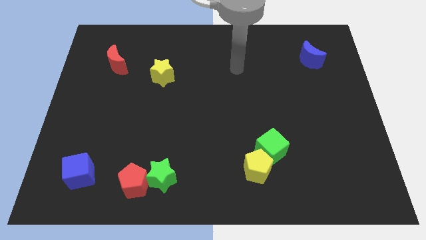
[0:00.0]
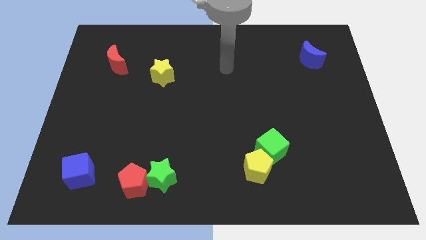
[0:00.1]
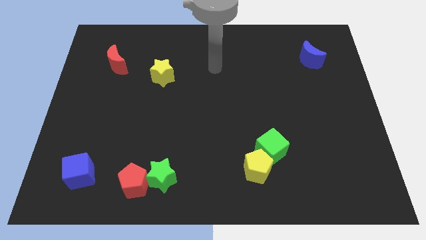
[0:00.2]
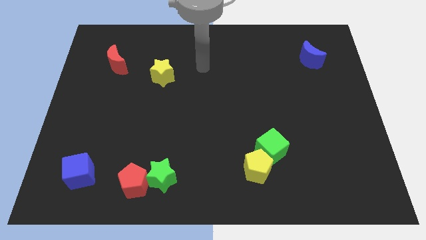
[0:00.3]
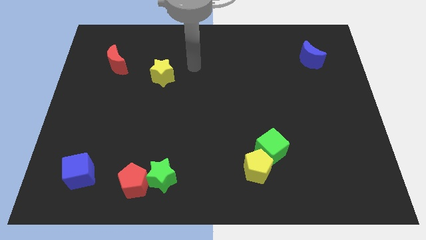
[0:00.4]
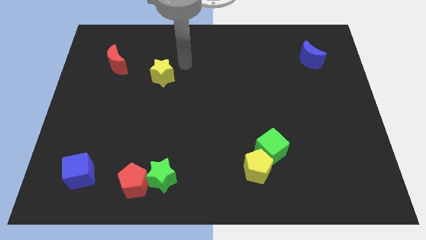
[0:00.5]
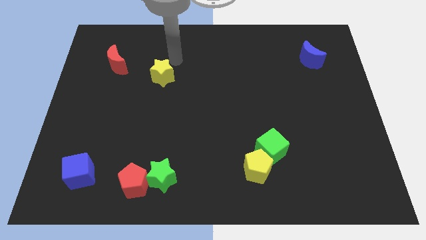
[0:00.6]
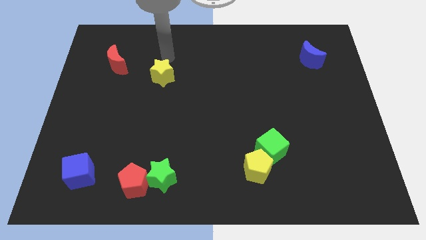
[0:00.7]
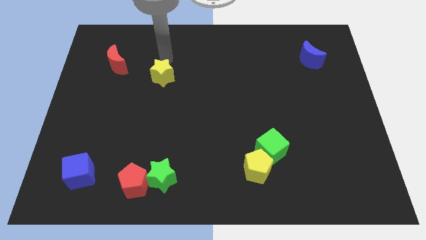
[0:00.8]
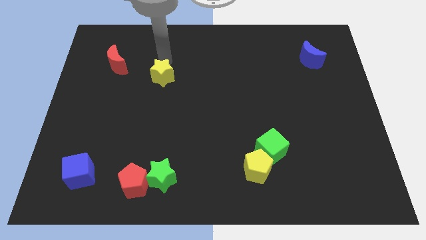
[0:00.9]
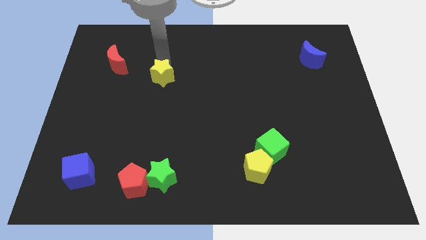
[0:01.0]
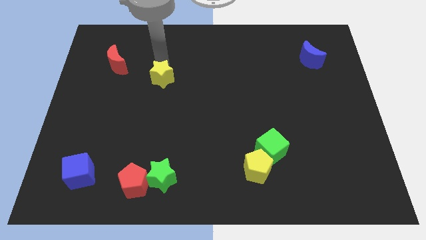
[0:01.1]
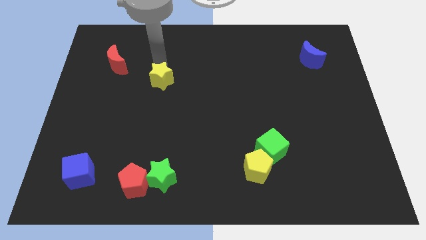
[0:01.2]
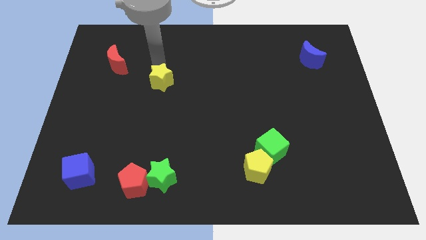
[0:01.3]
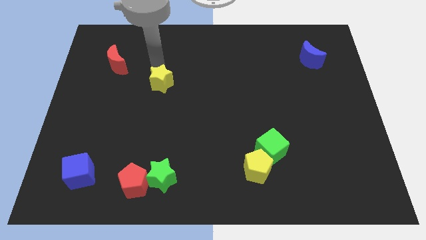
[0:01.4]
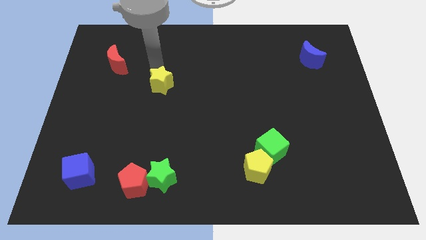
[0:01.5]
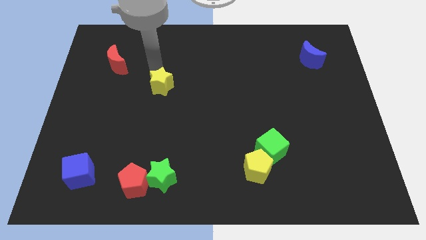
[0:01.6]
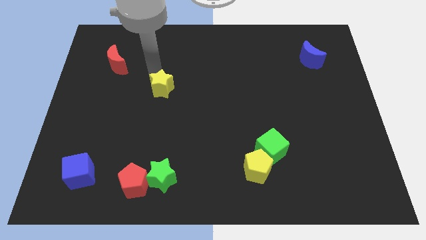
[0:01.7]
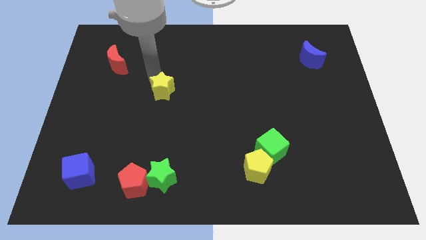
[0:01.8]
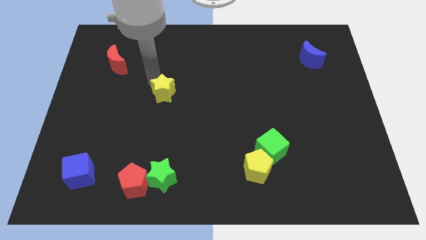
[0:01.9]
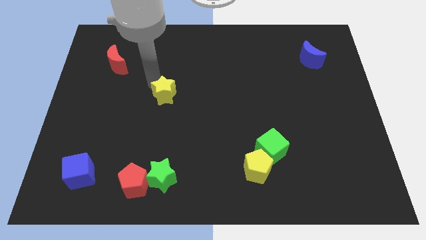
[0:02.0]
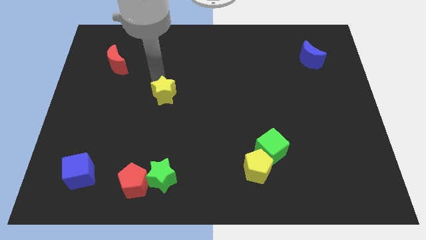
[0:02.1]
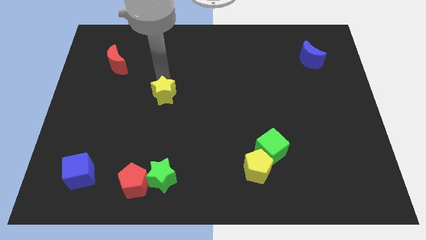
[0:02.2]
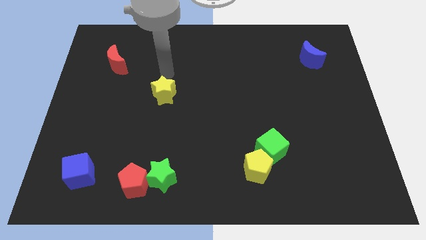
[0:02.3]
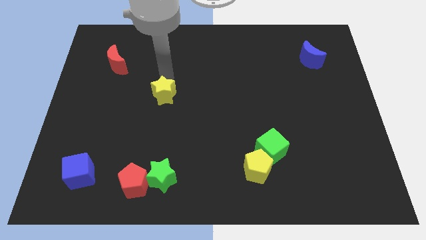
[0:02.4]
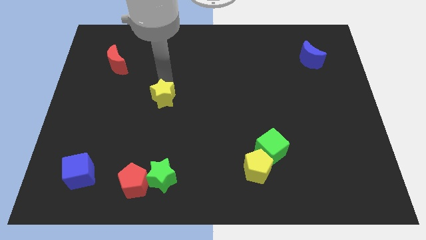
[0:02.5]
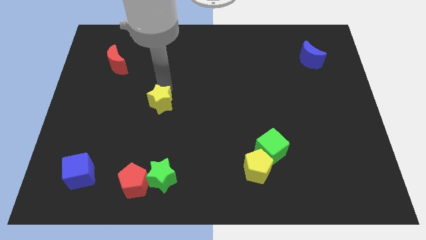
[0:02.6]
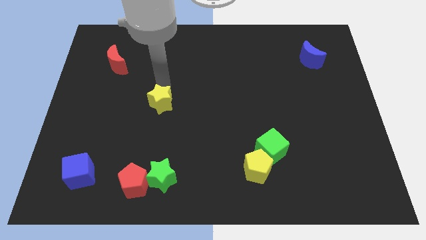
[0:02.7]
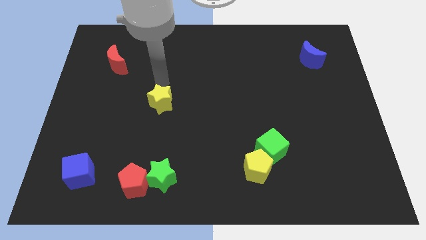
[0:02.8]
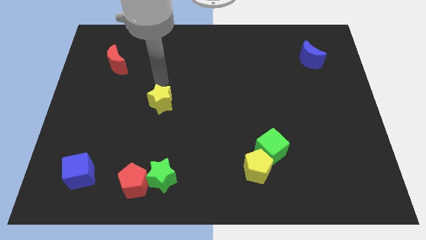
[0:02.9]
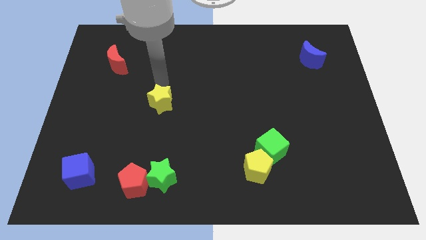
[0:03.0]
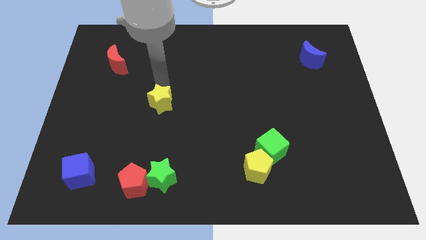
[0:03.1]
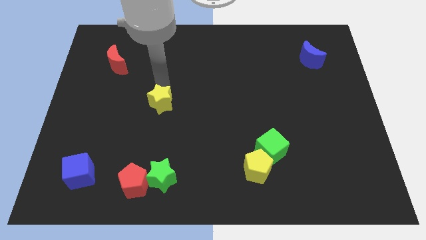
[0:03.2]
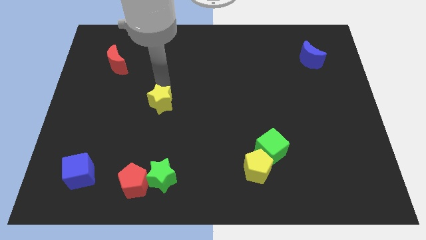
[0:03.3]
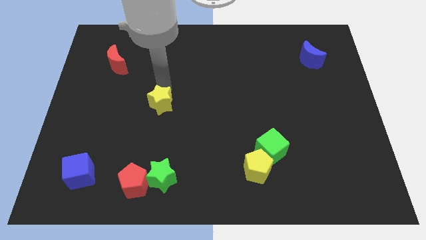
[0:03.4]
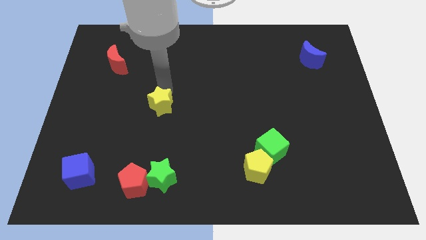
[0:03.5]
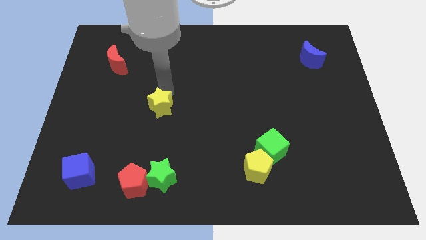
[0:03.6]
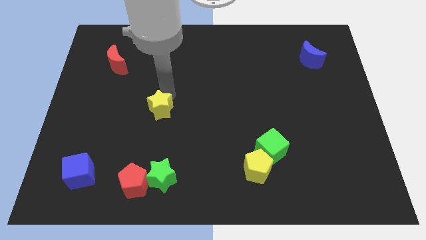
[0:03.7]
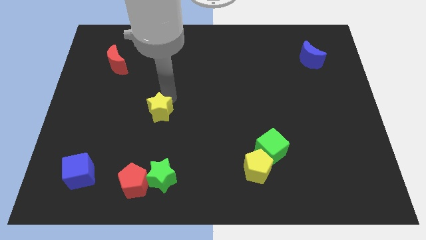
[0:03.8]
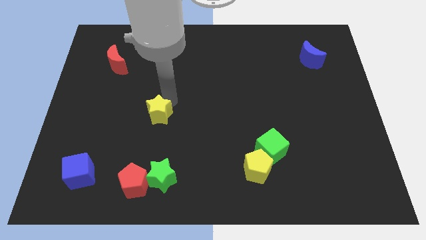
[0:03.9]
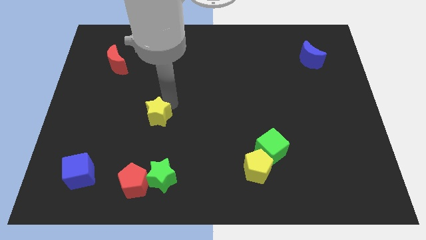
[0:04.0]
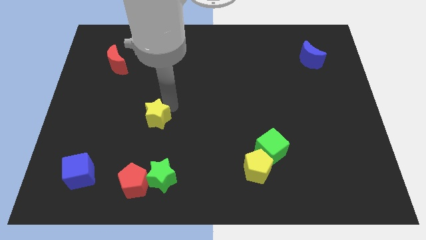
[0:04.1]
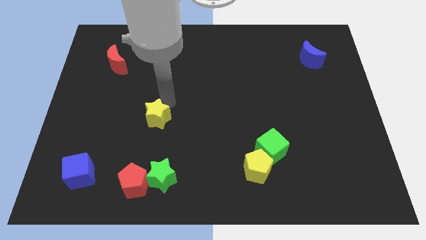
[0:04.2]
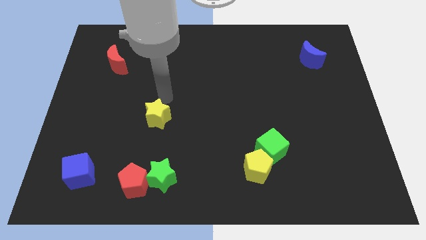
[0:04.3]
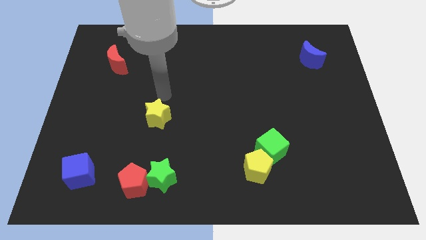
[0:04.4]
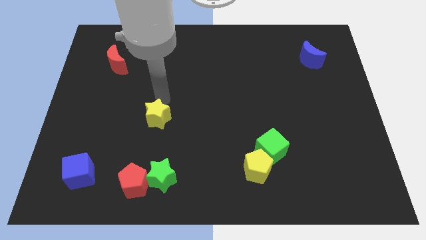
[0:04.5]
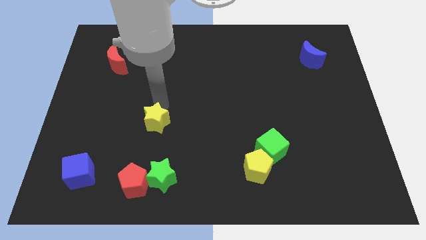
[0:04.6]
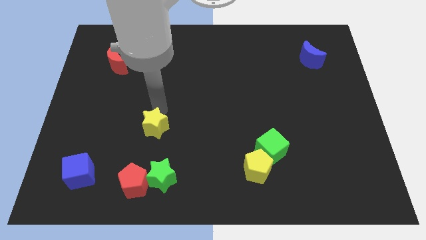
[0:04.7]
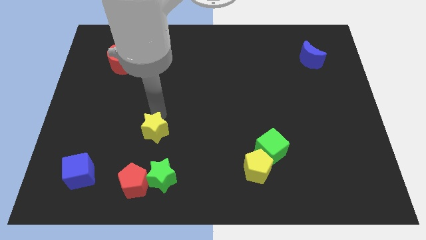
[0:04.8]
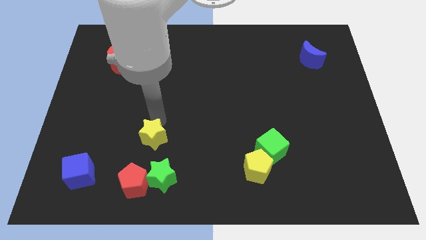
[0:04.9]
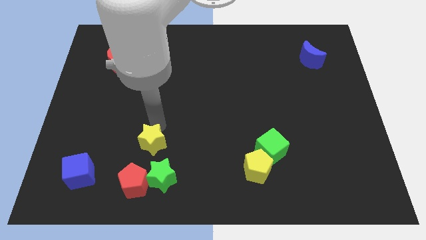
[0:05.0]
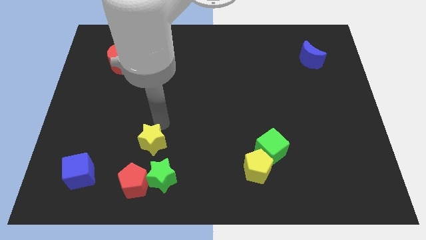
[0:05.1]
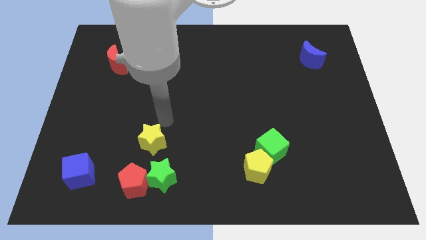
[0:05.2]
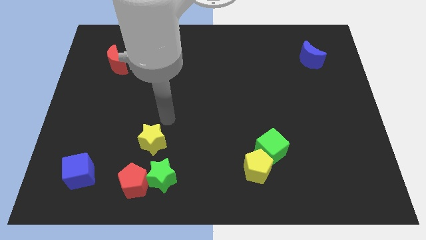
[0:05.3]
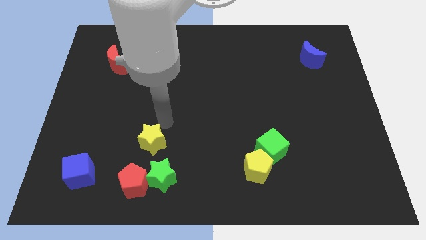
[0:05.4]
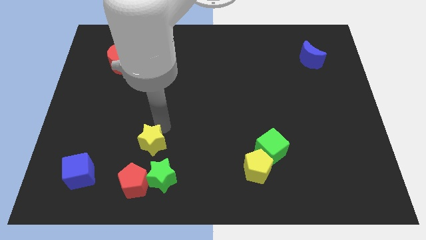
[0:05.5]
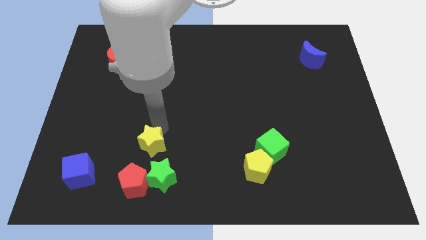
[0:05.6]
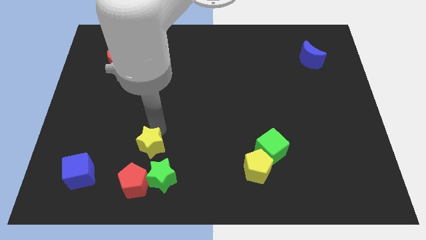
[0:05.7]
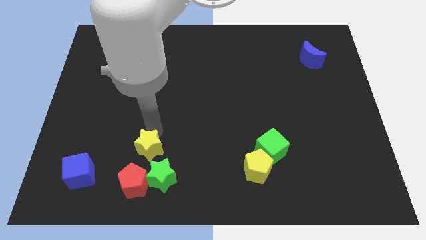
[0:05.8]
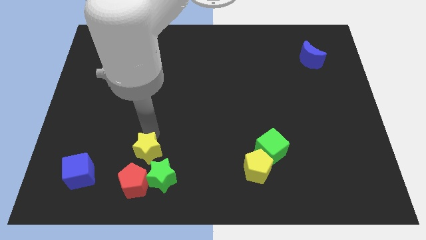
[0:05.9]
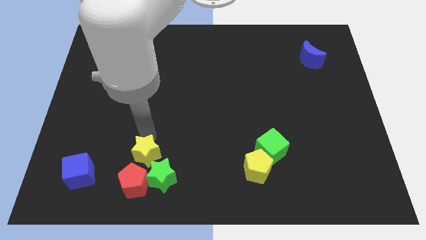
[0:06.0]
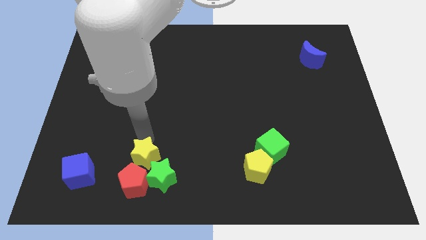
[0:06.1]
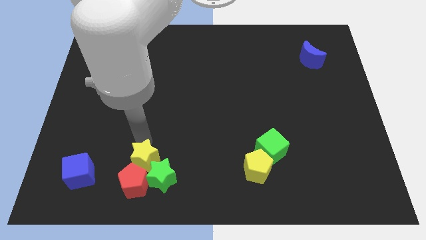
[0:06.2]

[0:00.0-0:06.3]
put the yellow star close to the red pentagon

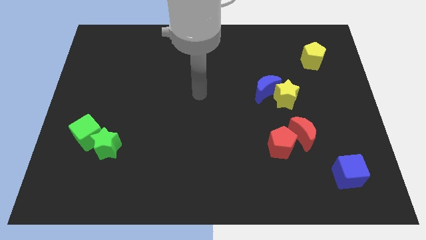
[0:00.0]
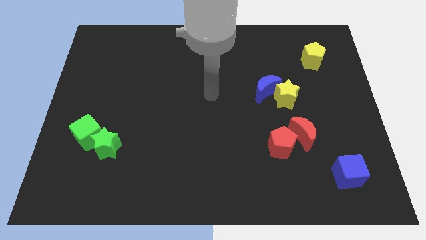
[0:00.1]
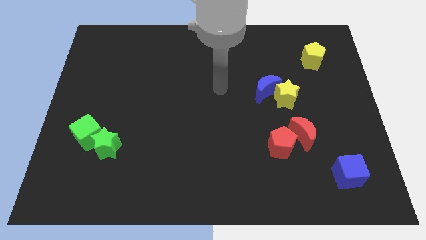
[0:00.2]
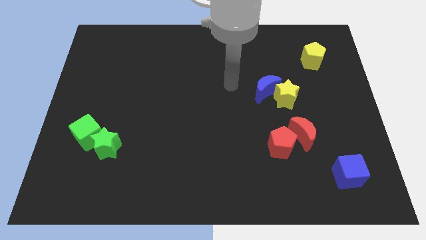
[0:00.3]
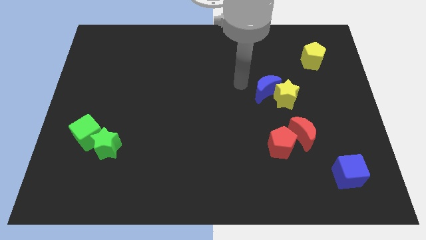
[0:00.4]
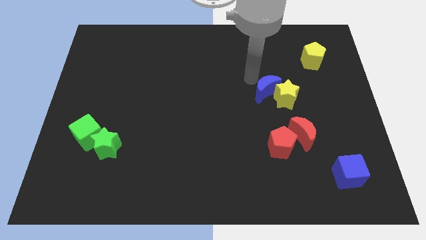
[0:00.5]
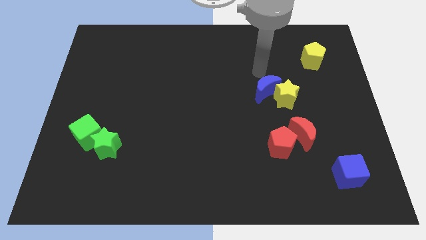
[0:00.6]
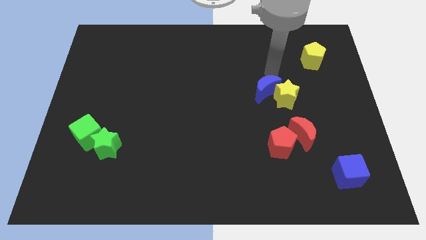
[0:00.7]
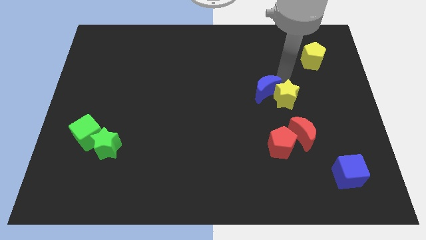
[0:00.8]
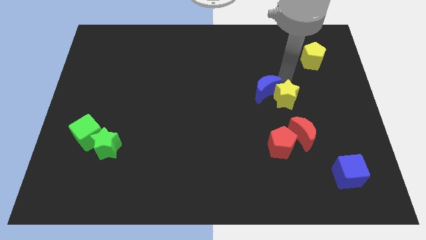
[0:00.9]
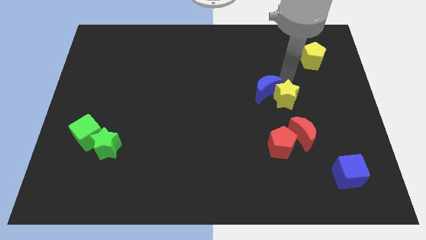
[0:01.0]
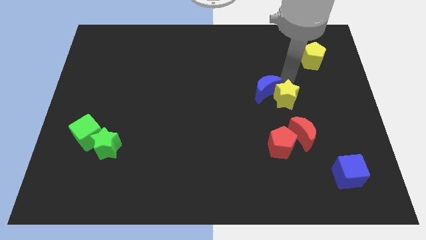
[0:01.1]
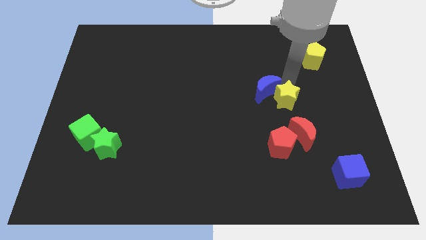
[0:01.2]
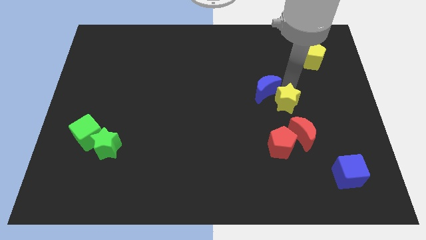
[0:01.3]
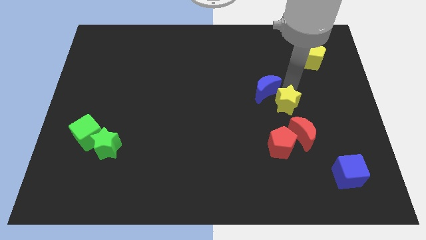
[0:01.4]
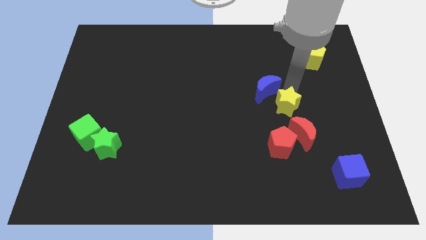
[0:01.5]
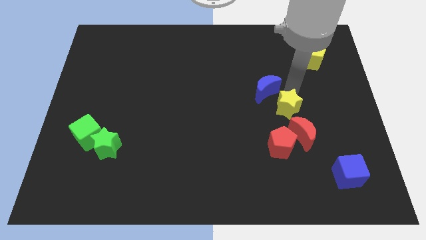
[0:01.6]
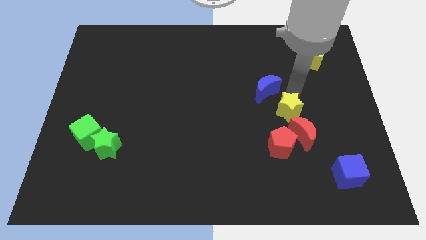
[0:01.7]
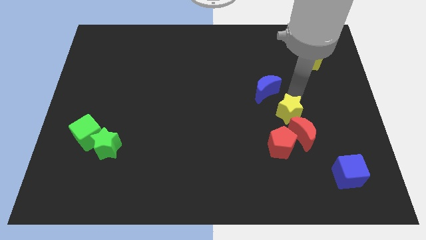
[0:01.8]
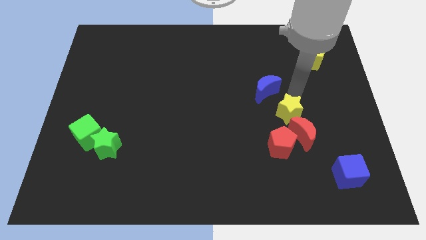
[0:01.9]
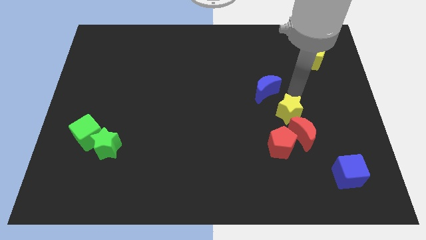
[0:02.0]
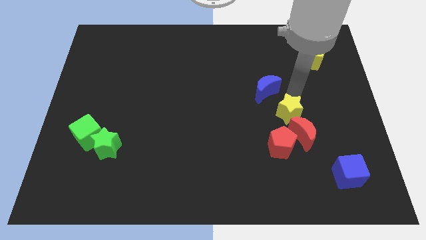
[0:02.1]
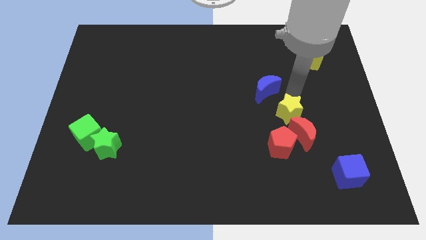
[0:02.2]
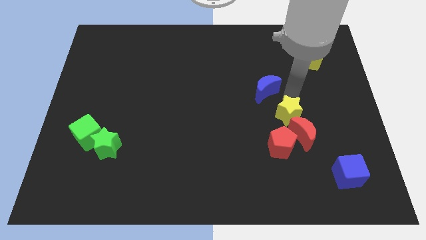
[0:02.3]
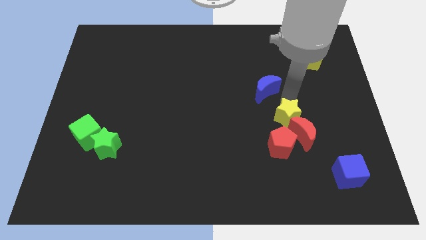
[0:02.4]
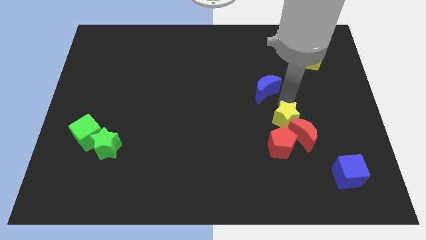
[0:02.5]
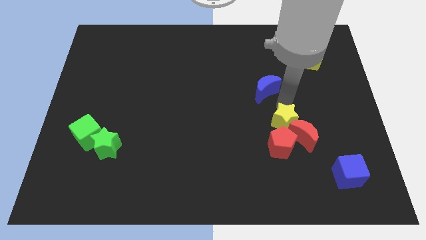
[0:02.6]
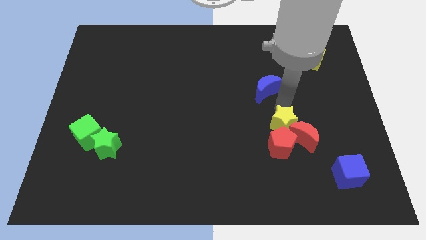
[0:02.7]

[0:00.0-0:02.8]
put the yellow star next to the red pentagon
